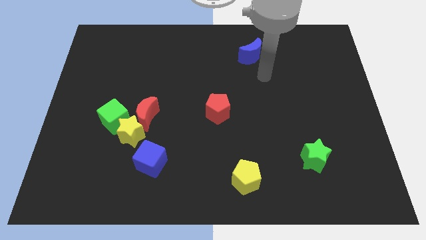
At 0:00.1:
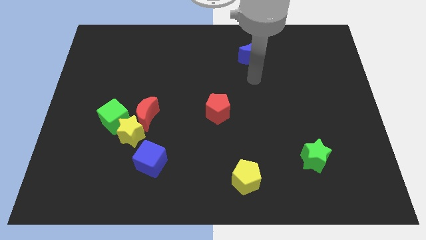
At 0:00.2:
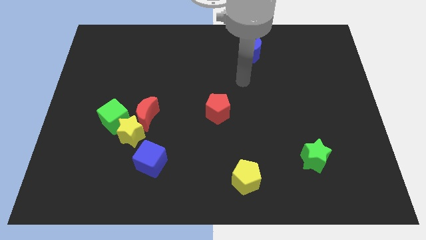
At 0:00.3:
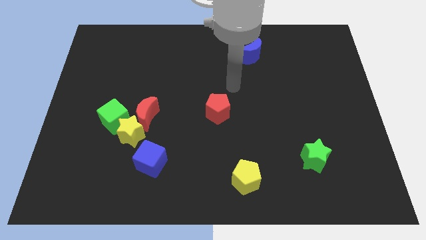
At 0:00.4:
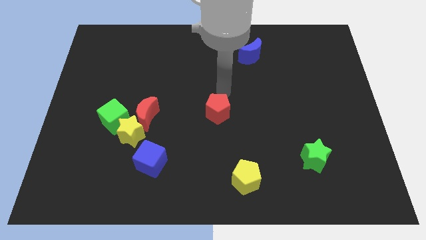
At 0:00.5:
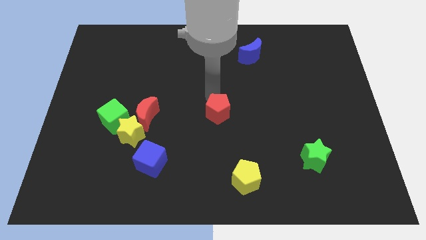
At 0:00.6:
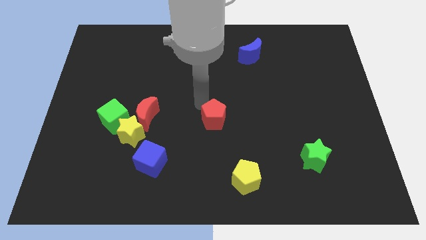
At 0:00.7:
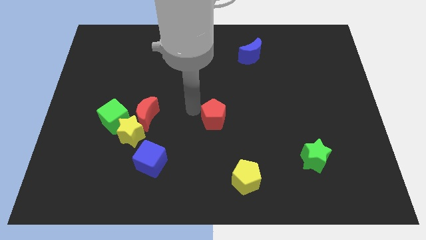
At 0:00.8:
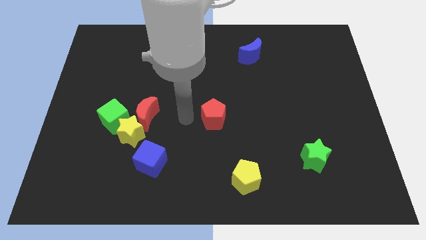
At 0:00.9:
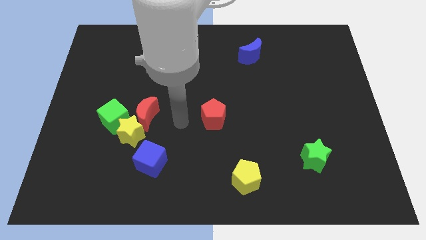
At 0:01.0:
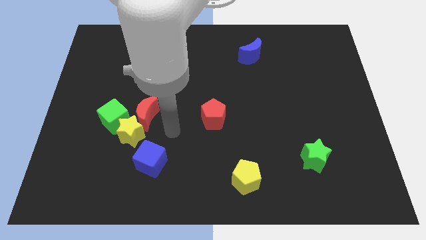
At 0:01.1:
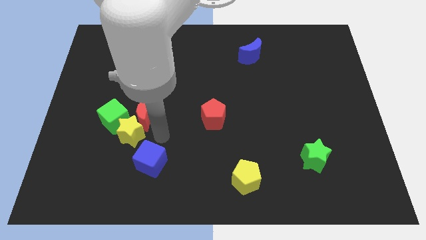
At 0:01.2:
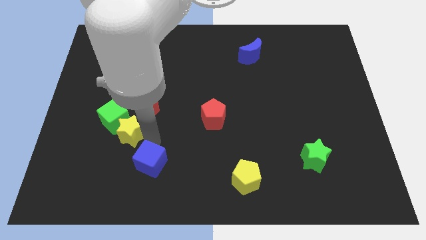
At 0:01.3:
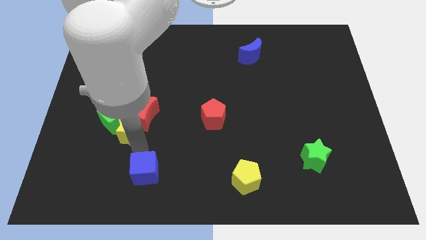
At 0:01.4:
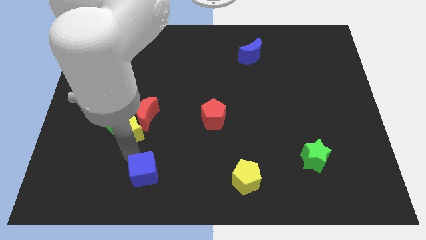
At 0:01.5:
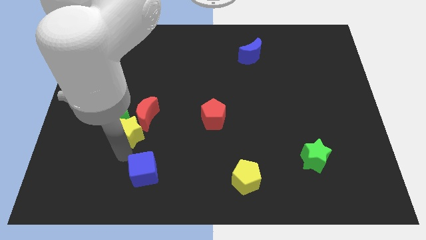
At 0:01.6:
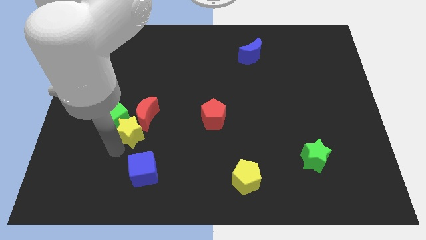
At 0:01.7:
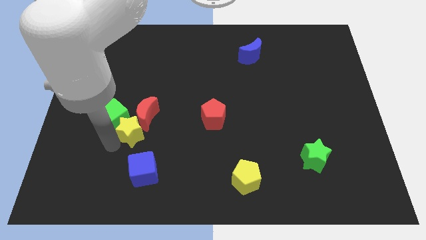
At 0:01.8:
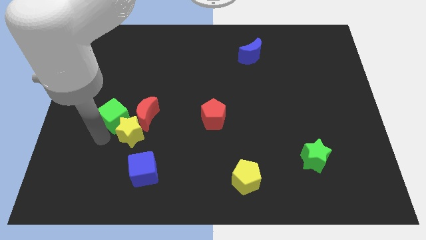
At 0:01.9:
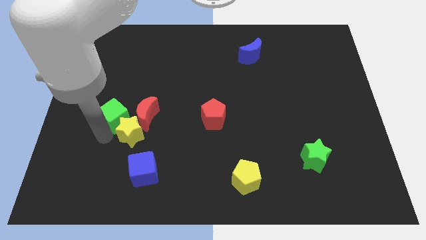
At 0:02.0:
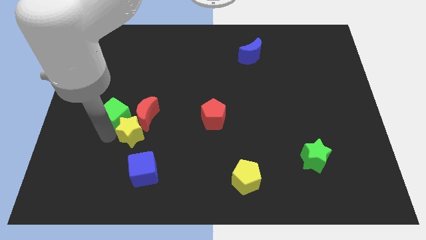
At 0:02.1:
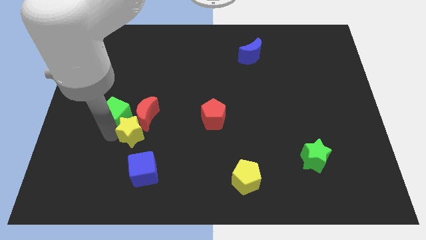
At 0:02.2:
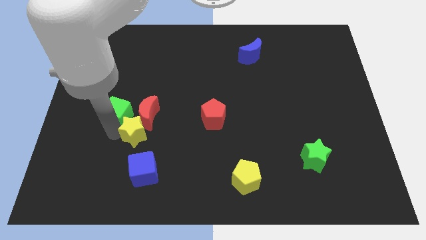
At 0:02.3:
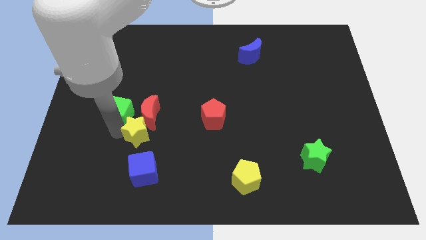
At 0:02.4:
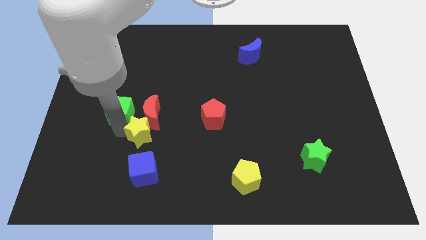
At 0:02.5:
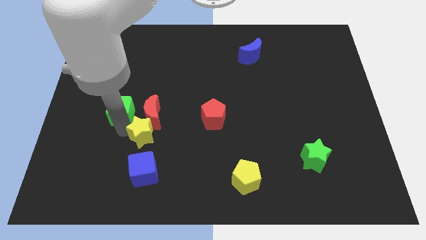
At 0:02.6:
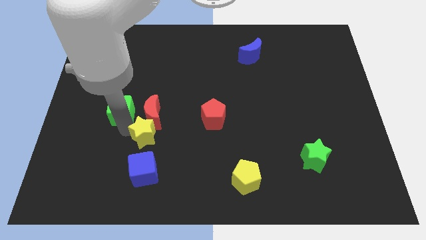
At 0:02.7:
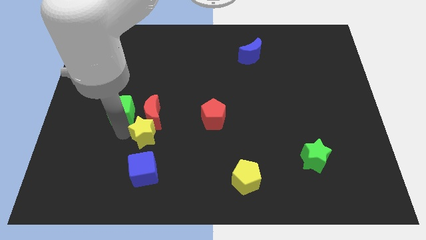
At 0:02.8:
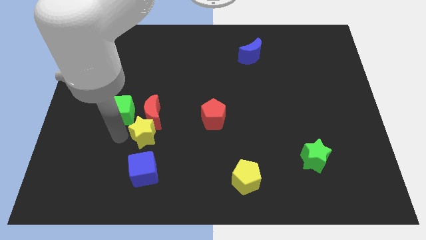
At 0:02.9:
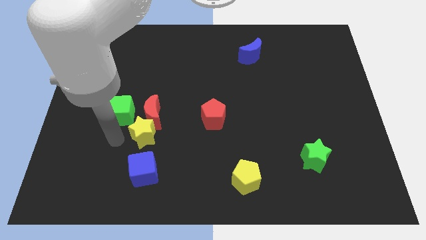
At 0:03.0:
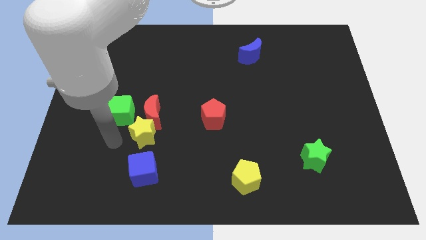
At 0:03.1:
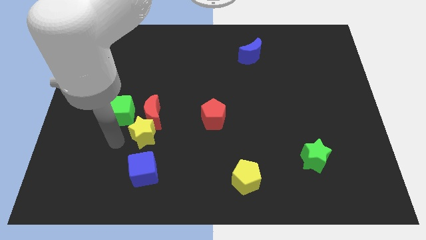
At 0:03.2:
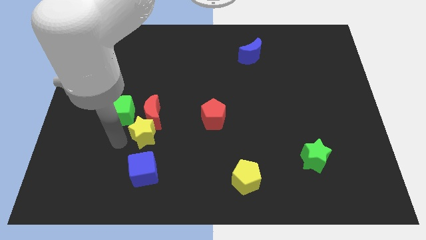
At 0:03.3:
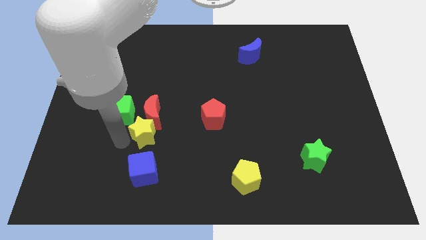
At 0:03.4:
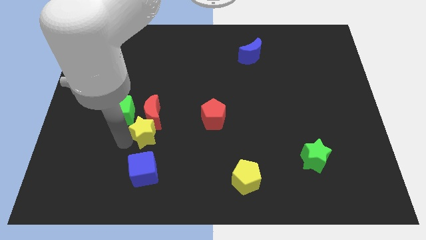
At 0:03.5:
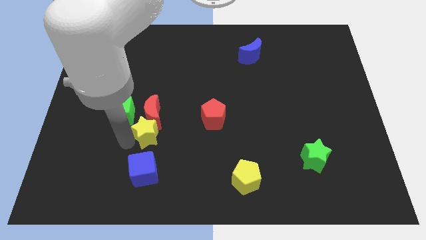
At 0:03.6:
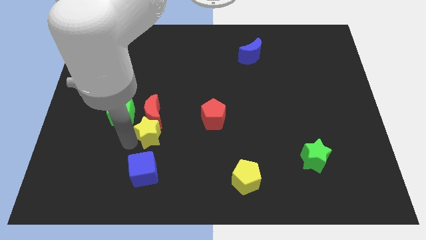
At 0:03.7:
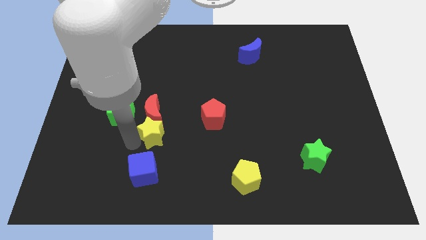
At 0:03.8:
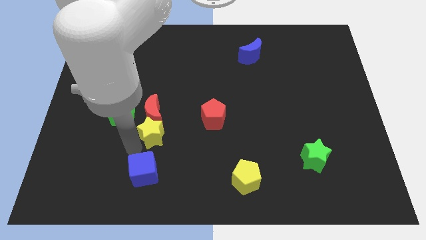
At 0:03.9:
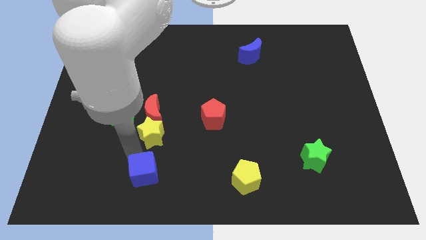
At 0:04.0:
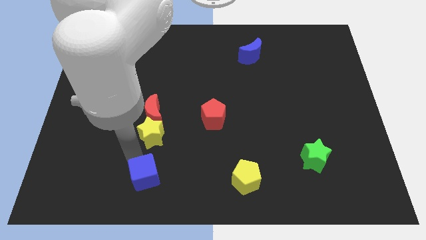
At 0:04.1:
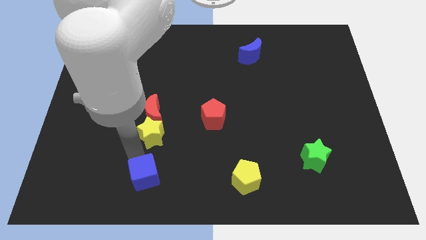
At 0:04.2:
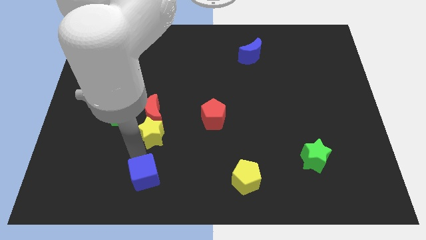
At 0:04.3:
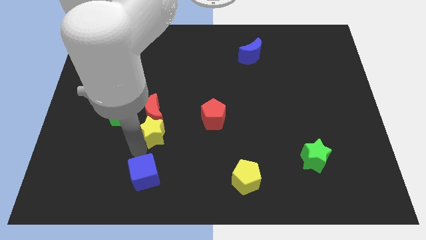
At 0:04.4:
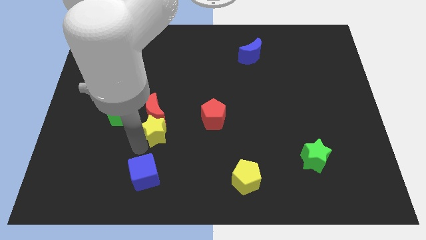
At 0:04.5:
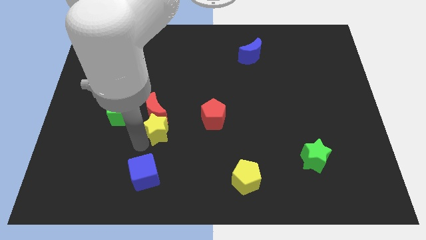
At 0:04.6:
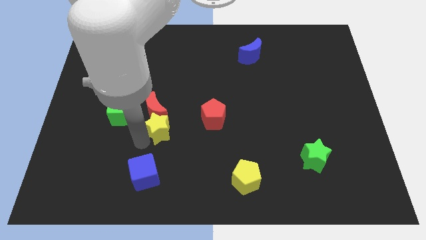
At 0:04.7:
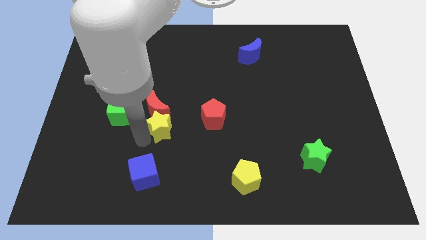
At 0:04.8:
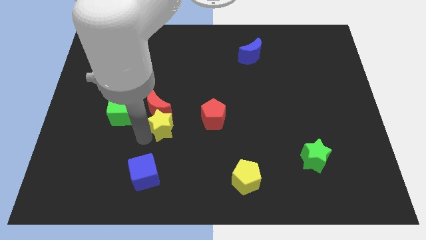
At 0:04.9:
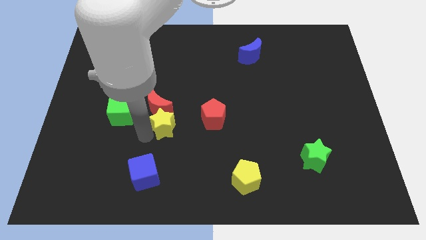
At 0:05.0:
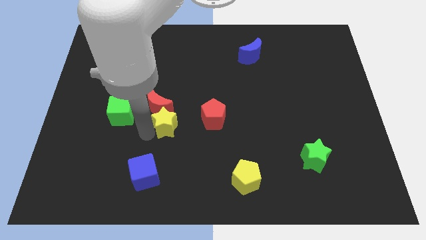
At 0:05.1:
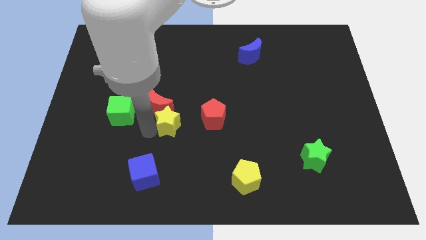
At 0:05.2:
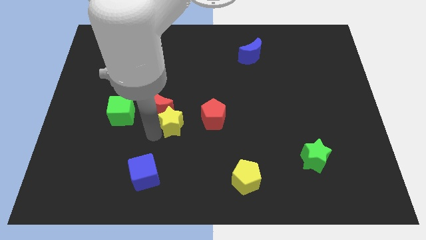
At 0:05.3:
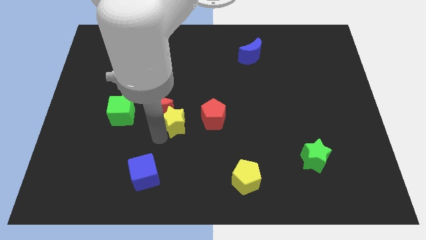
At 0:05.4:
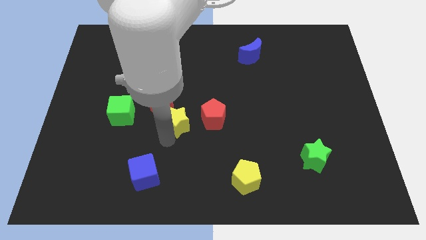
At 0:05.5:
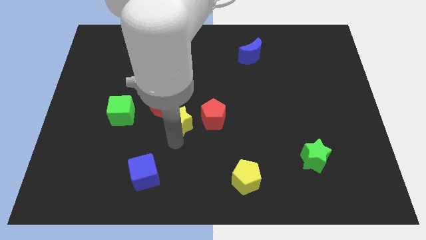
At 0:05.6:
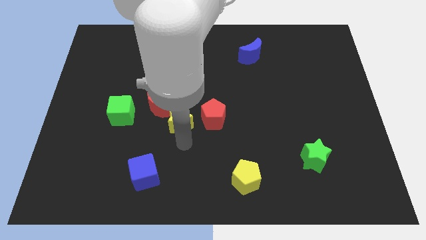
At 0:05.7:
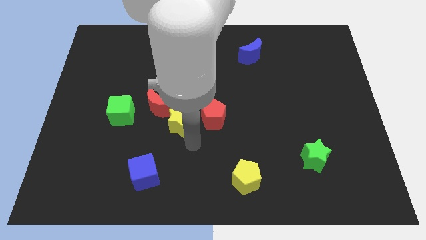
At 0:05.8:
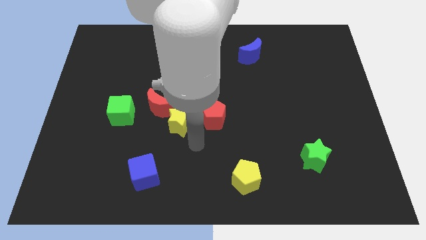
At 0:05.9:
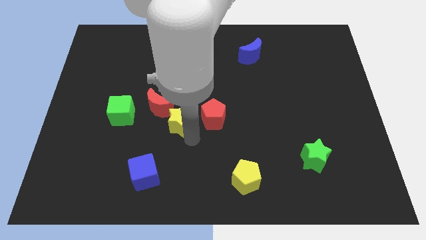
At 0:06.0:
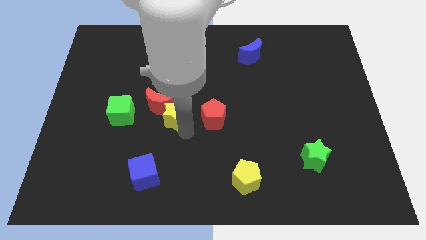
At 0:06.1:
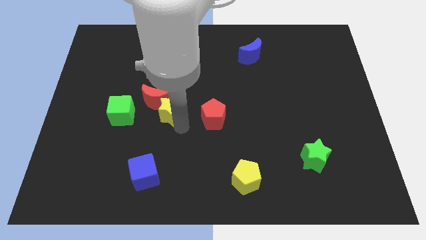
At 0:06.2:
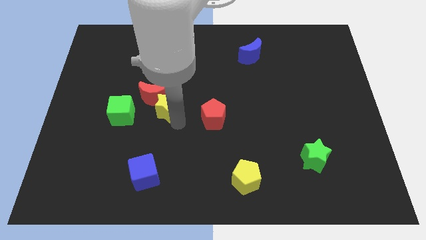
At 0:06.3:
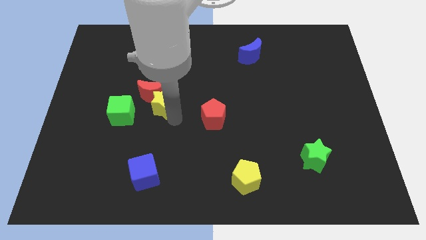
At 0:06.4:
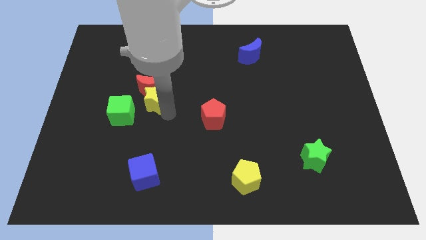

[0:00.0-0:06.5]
slide the yellow star upwards a little bit

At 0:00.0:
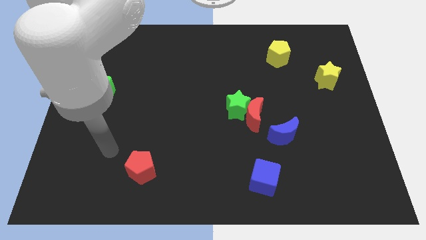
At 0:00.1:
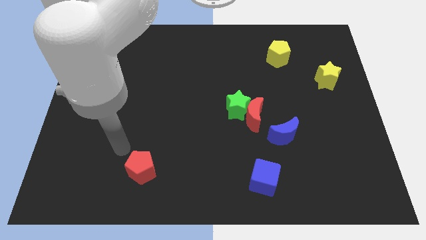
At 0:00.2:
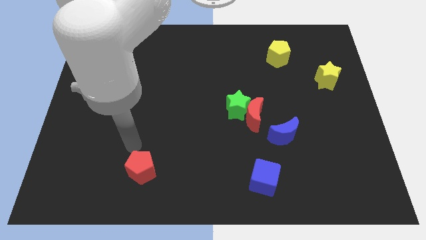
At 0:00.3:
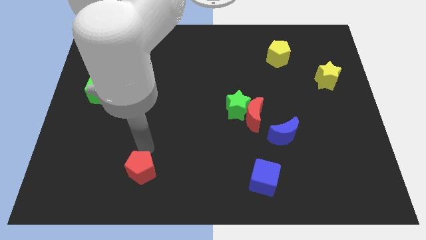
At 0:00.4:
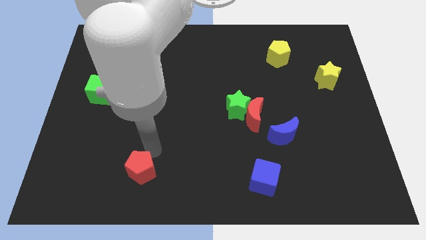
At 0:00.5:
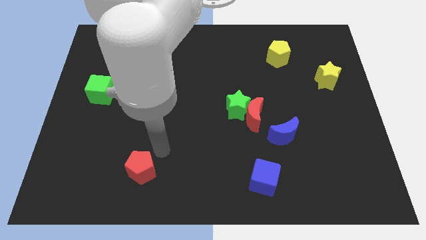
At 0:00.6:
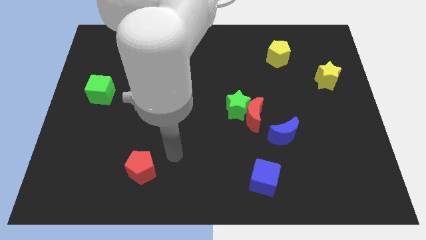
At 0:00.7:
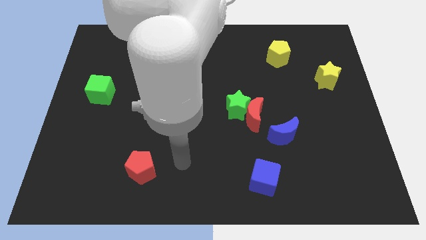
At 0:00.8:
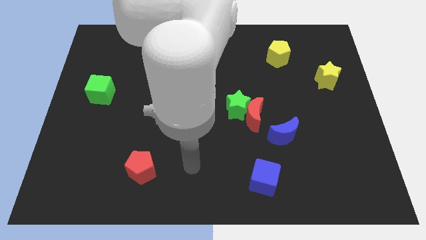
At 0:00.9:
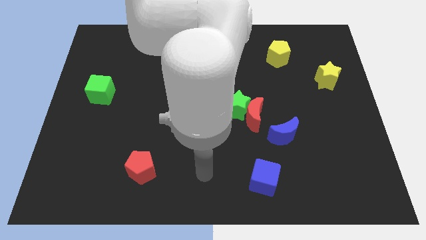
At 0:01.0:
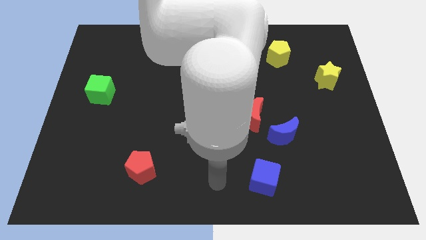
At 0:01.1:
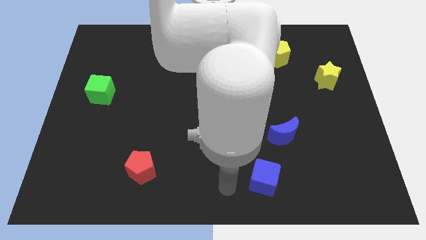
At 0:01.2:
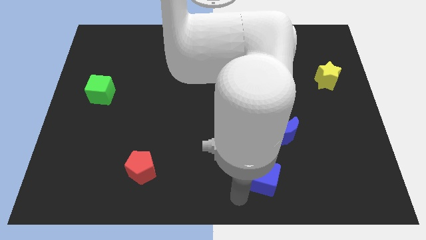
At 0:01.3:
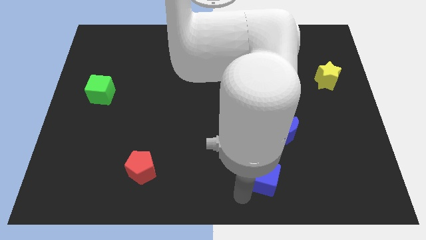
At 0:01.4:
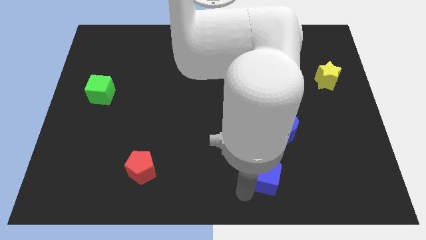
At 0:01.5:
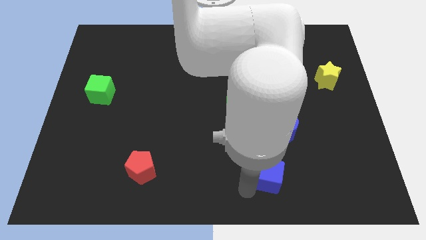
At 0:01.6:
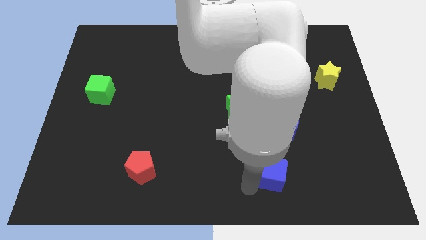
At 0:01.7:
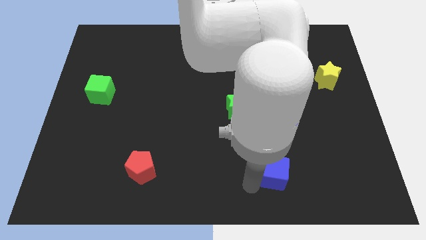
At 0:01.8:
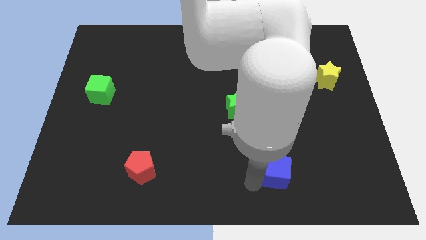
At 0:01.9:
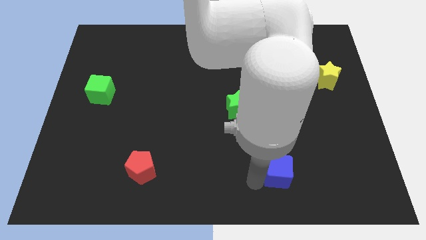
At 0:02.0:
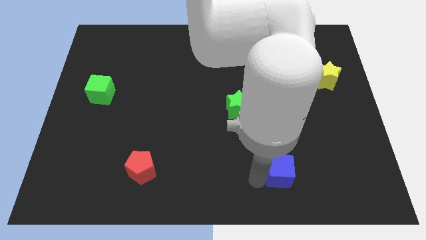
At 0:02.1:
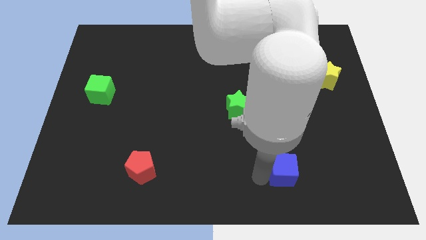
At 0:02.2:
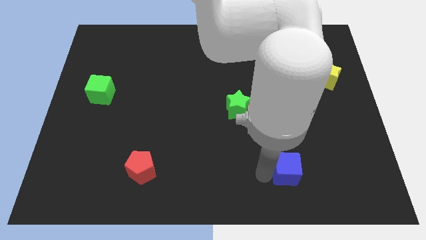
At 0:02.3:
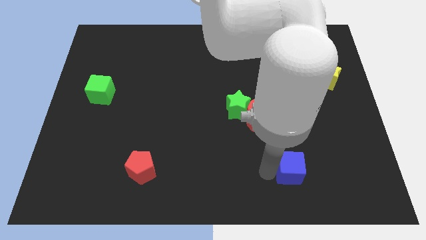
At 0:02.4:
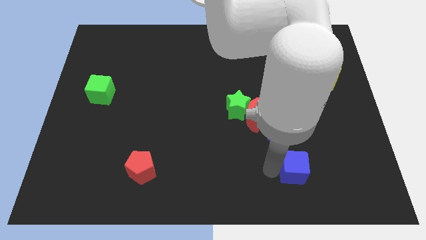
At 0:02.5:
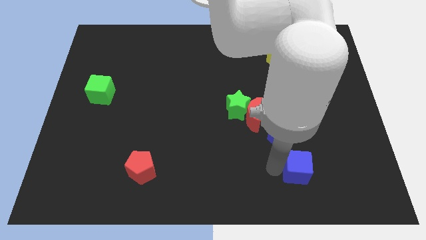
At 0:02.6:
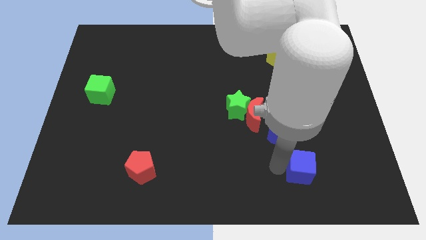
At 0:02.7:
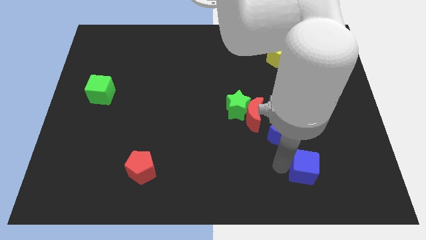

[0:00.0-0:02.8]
slide the blue cube upwards and then to the right a little
